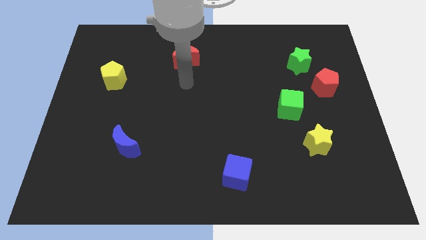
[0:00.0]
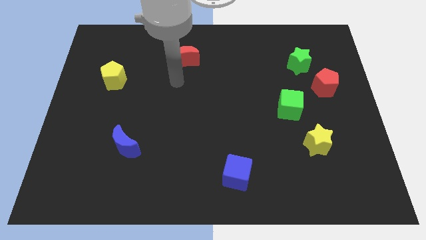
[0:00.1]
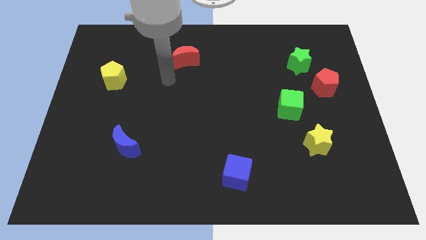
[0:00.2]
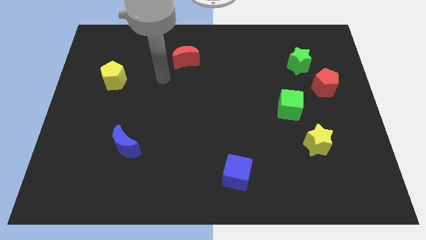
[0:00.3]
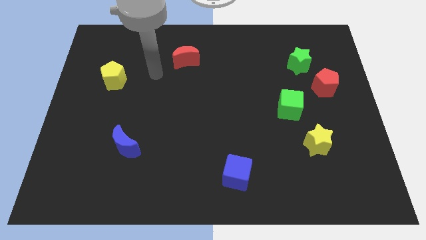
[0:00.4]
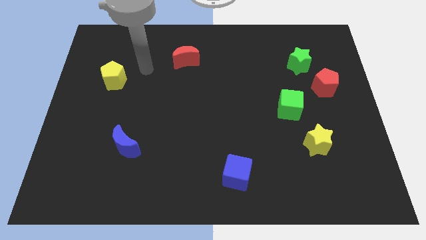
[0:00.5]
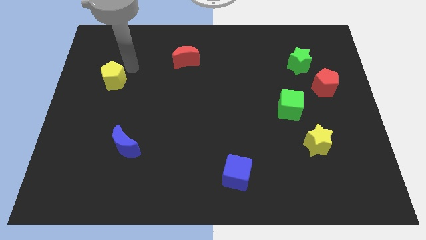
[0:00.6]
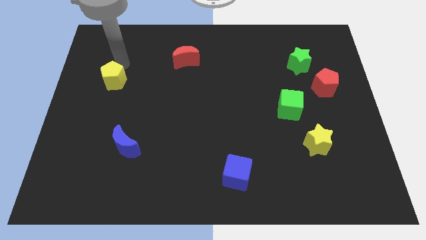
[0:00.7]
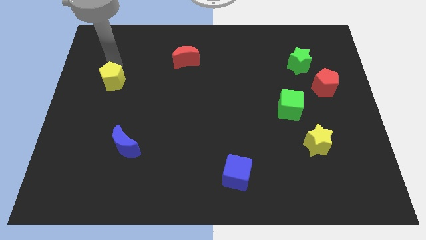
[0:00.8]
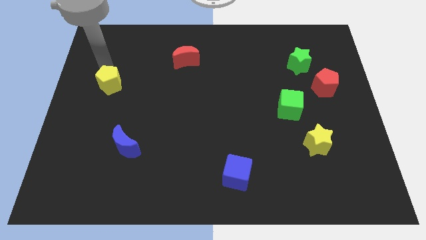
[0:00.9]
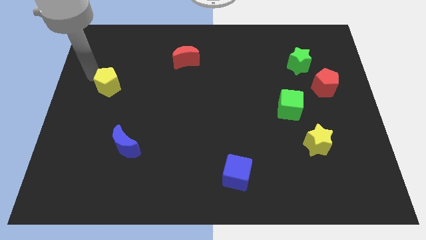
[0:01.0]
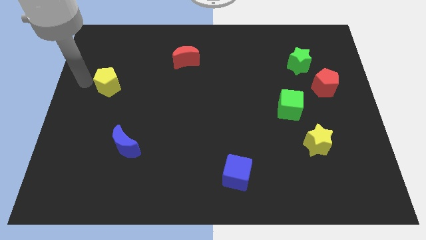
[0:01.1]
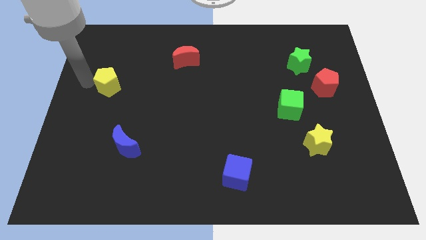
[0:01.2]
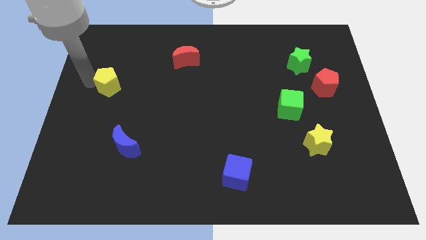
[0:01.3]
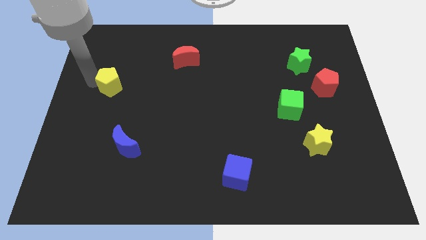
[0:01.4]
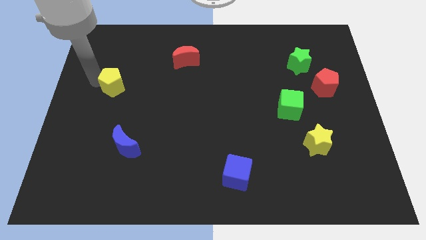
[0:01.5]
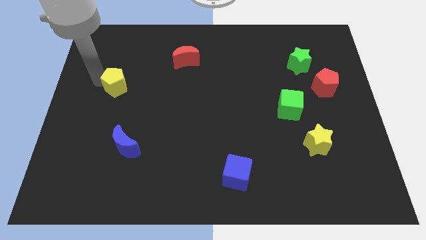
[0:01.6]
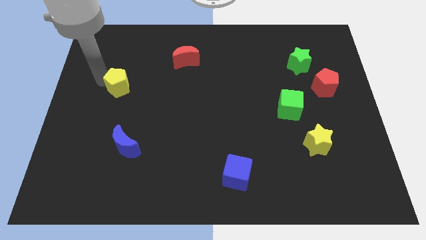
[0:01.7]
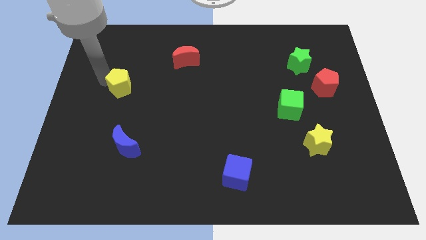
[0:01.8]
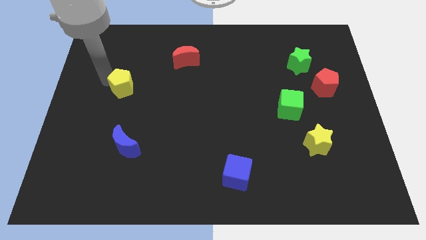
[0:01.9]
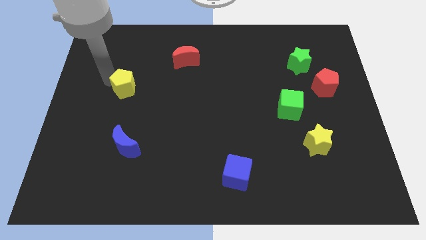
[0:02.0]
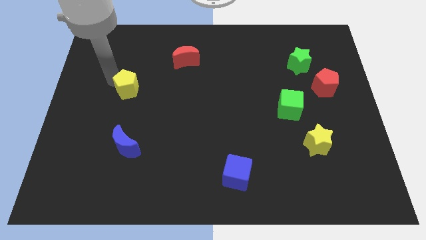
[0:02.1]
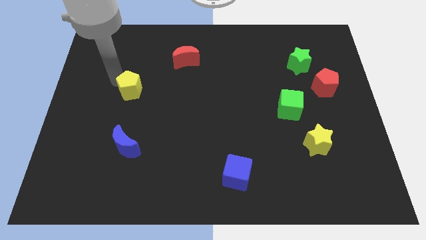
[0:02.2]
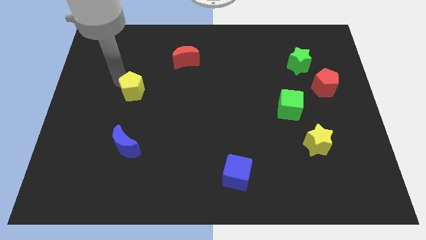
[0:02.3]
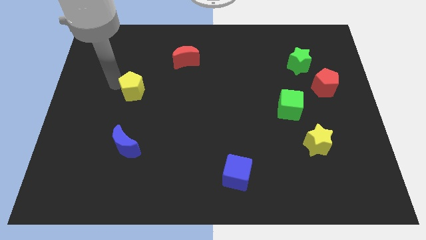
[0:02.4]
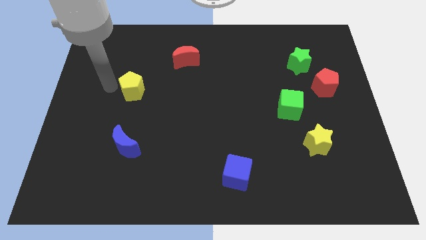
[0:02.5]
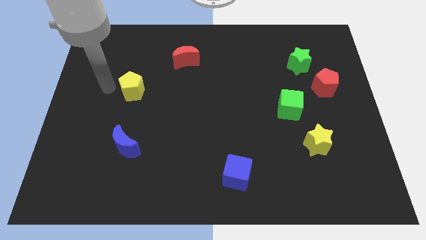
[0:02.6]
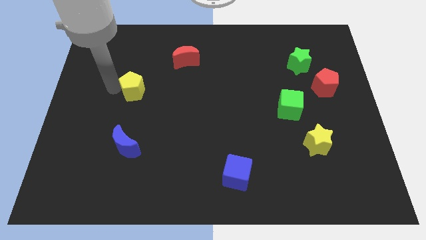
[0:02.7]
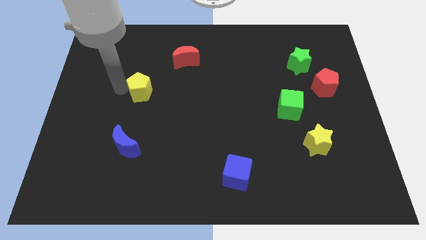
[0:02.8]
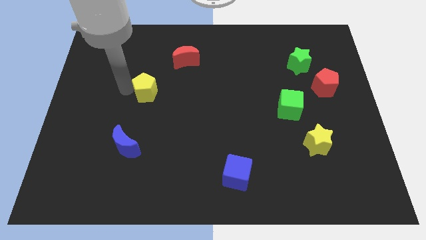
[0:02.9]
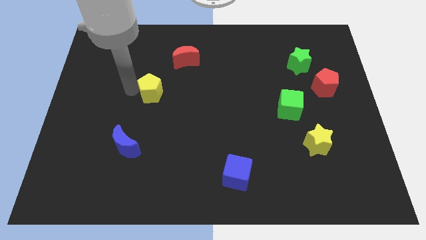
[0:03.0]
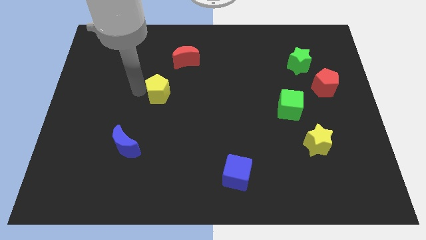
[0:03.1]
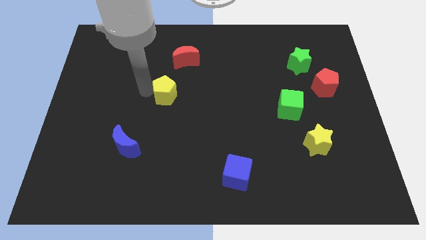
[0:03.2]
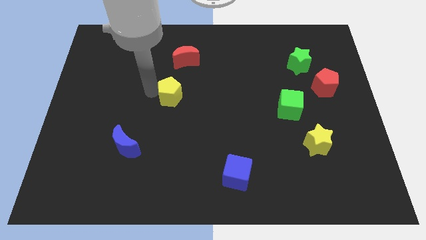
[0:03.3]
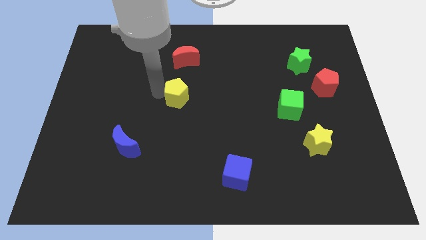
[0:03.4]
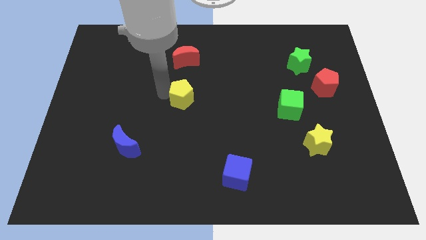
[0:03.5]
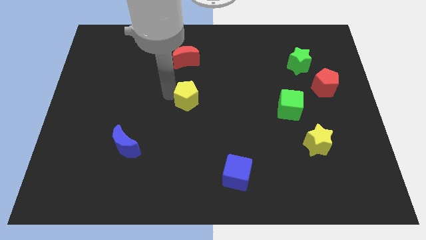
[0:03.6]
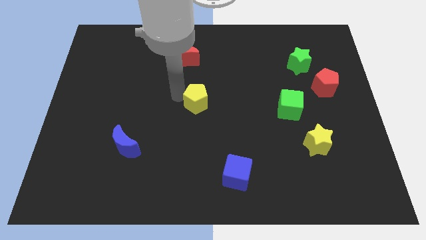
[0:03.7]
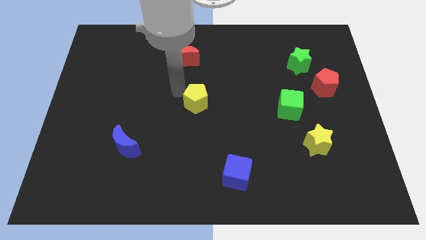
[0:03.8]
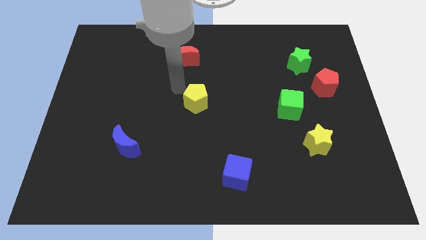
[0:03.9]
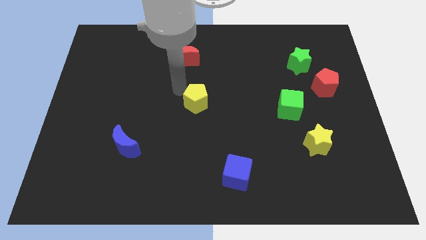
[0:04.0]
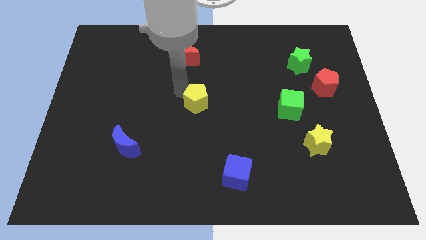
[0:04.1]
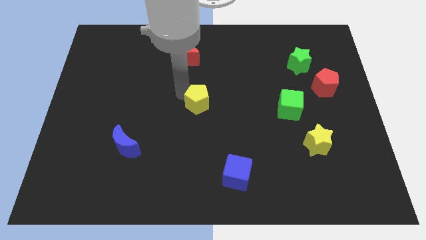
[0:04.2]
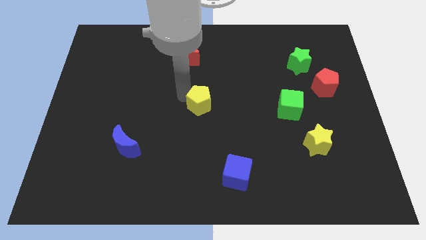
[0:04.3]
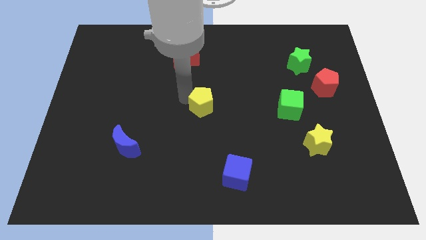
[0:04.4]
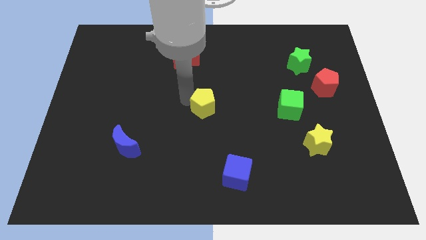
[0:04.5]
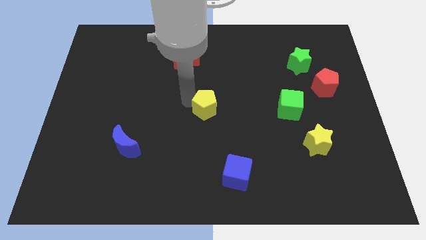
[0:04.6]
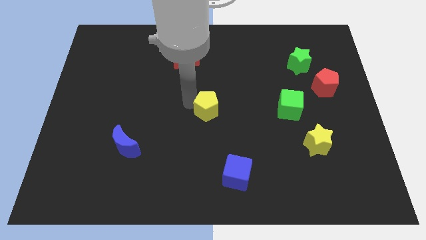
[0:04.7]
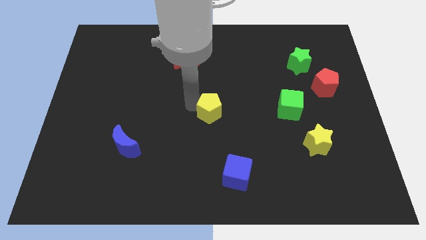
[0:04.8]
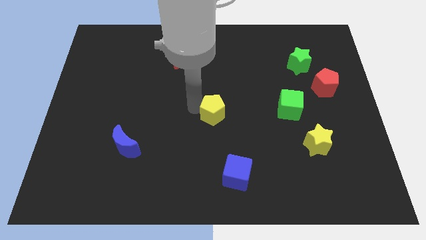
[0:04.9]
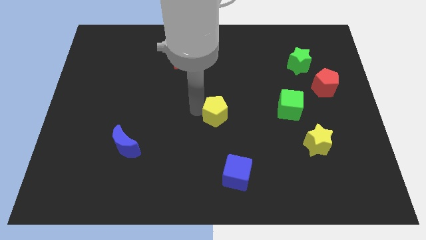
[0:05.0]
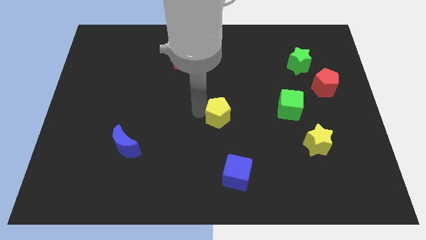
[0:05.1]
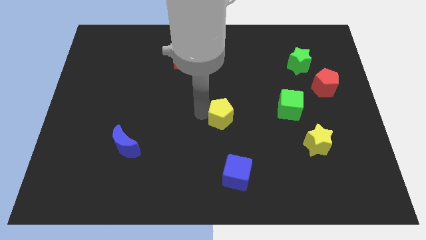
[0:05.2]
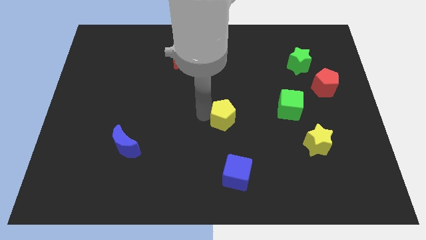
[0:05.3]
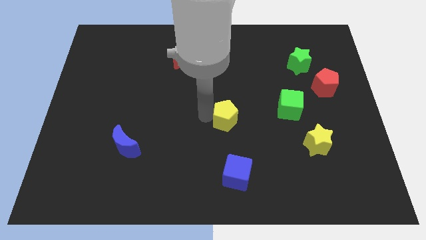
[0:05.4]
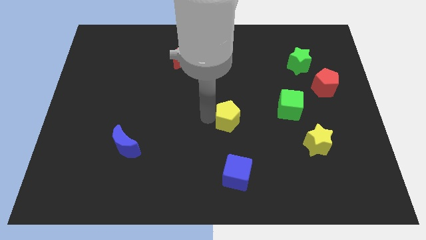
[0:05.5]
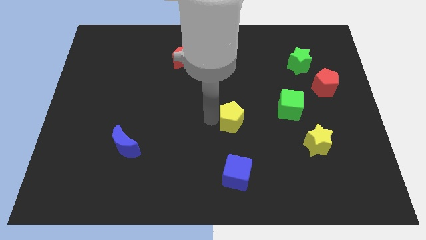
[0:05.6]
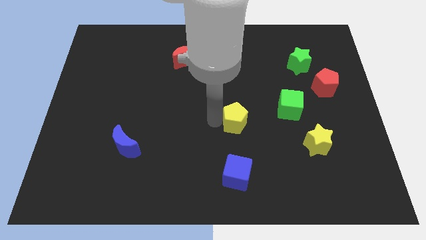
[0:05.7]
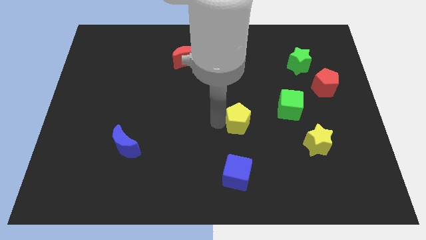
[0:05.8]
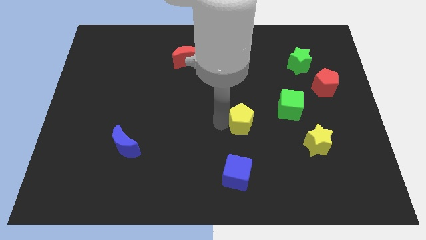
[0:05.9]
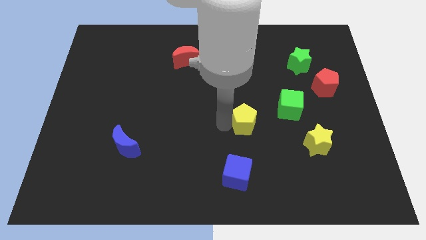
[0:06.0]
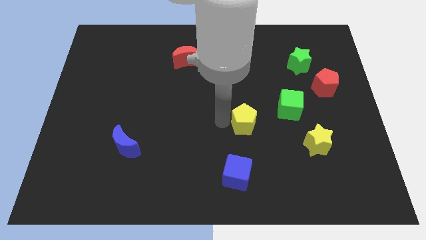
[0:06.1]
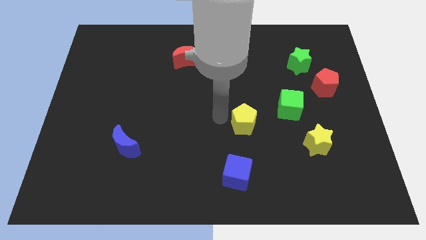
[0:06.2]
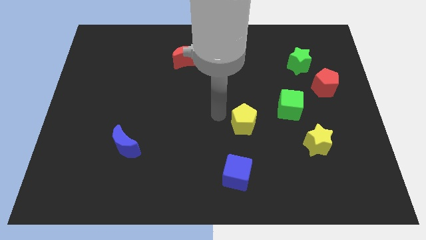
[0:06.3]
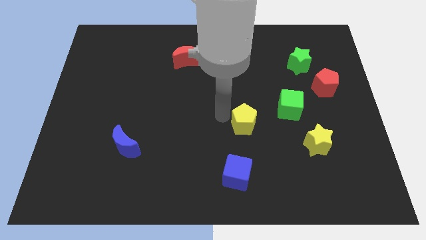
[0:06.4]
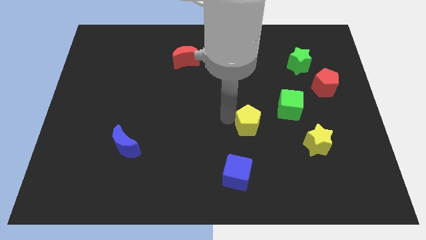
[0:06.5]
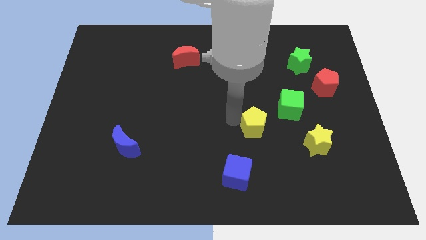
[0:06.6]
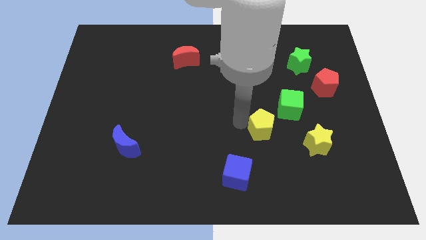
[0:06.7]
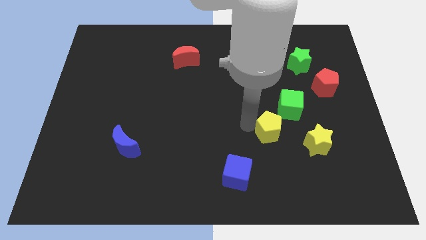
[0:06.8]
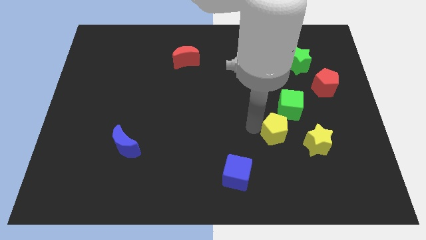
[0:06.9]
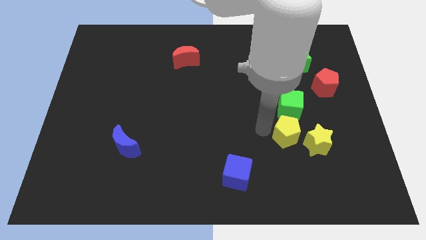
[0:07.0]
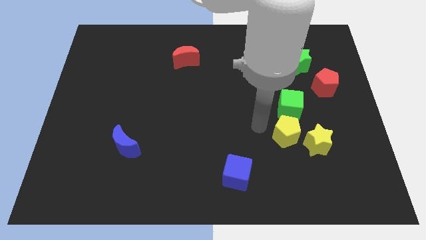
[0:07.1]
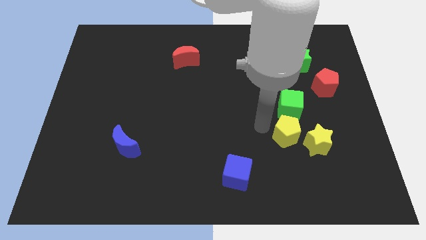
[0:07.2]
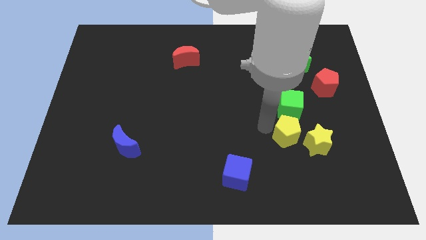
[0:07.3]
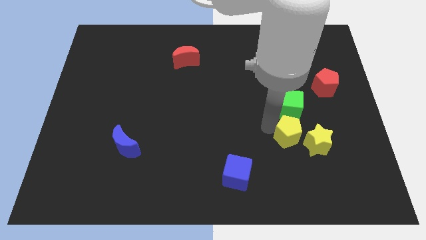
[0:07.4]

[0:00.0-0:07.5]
slide the yellow pentagon next to the yellow star
